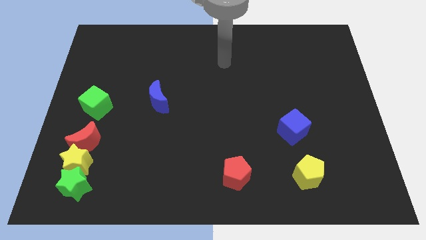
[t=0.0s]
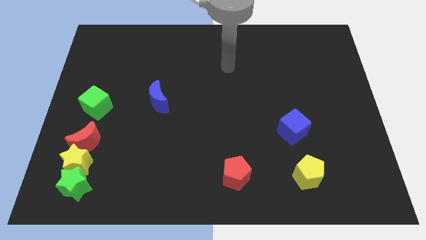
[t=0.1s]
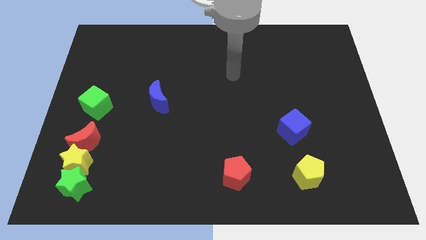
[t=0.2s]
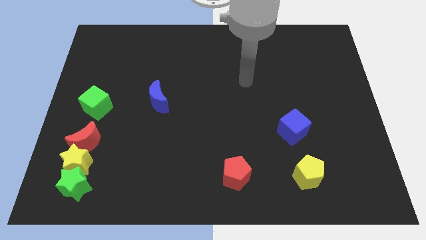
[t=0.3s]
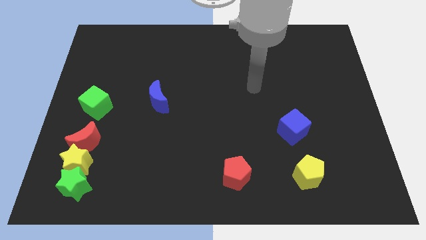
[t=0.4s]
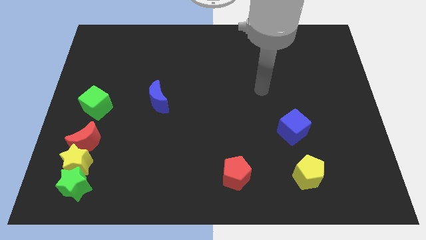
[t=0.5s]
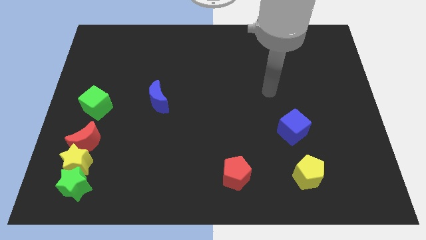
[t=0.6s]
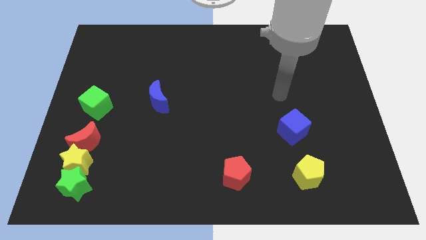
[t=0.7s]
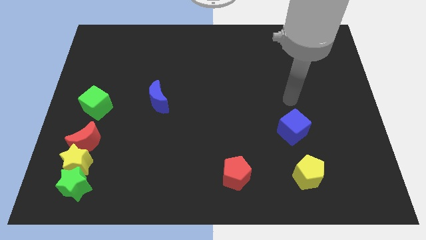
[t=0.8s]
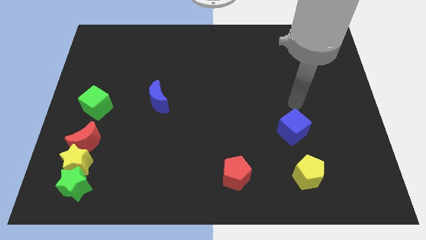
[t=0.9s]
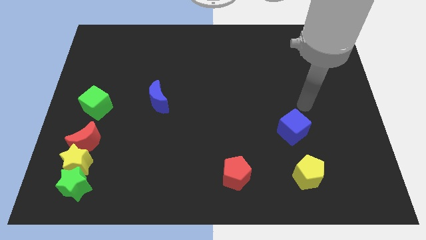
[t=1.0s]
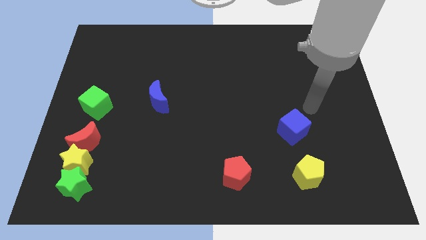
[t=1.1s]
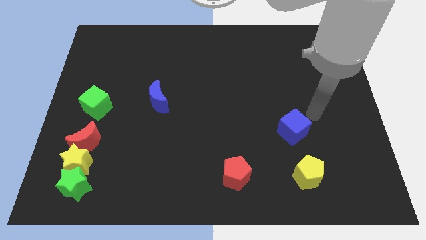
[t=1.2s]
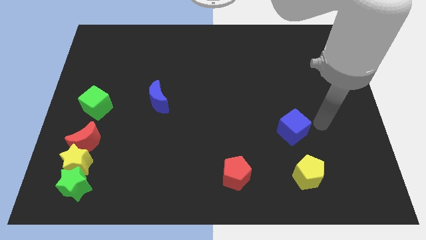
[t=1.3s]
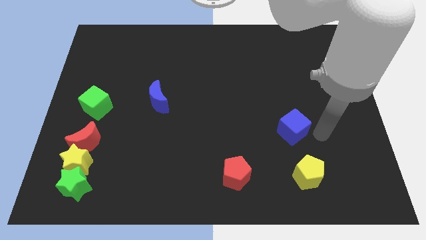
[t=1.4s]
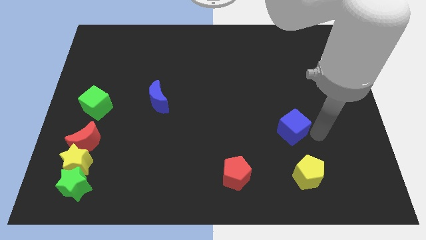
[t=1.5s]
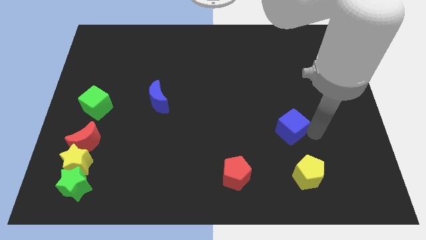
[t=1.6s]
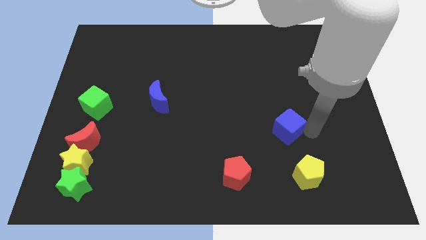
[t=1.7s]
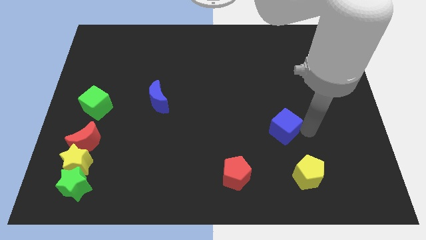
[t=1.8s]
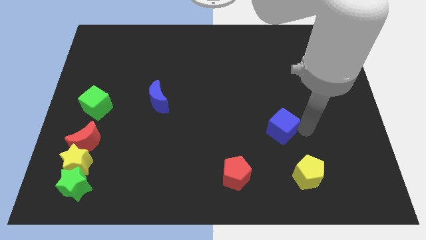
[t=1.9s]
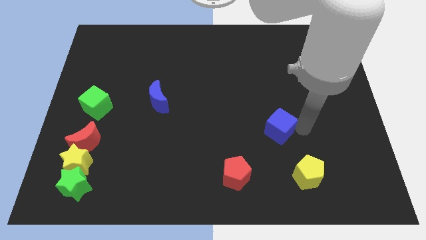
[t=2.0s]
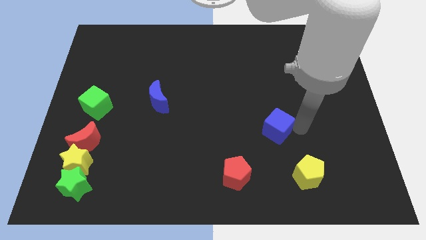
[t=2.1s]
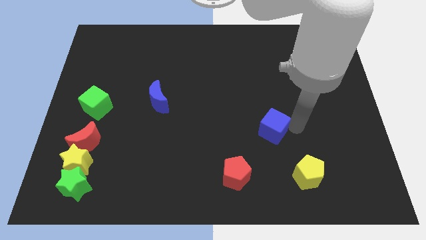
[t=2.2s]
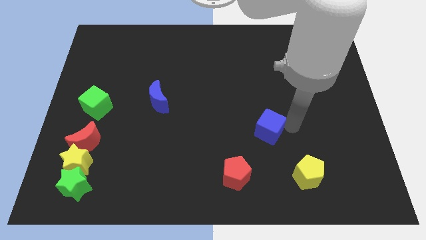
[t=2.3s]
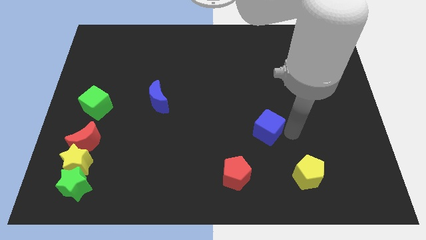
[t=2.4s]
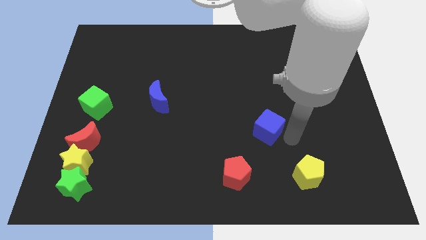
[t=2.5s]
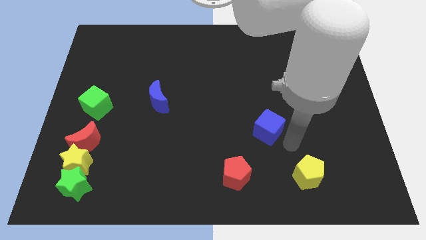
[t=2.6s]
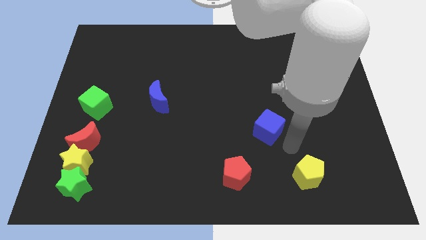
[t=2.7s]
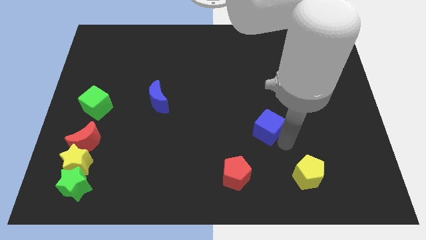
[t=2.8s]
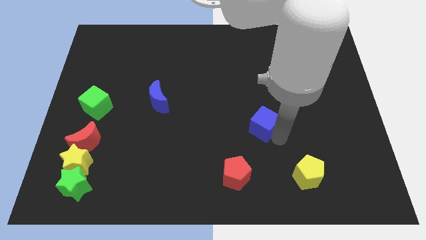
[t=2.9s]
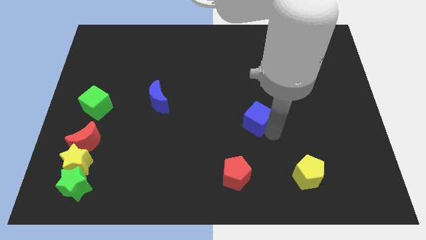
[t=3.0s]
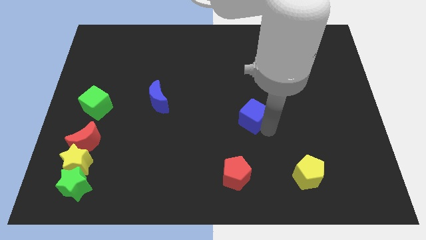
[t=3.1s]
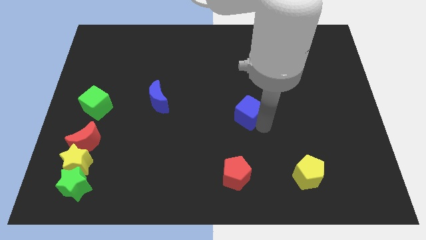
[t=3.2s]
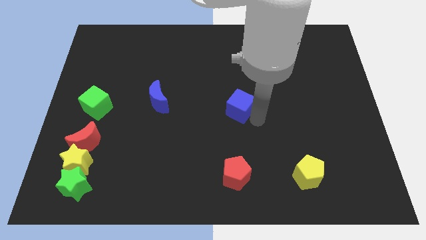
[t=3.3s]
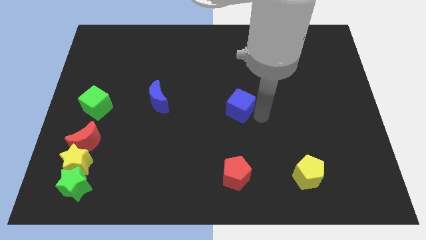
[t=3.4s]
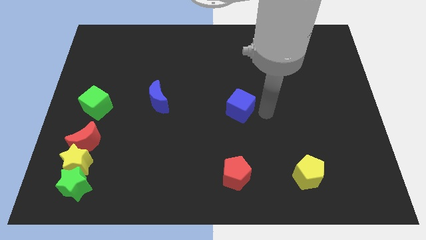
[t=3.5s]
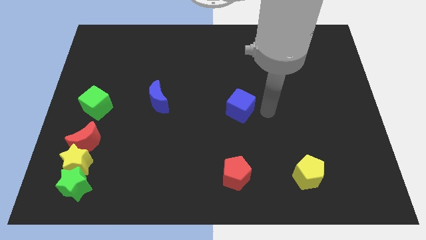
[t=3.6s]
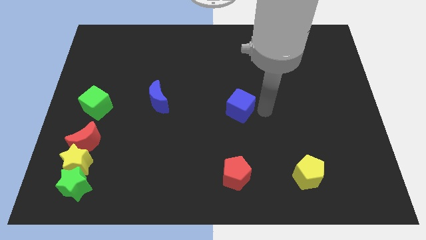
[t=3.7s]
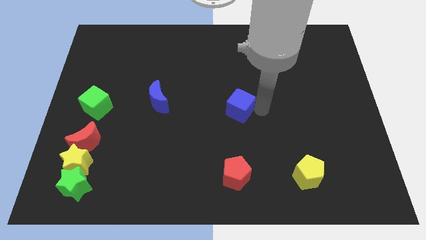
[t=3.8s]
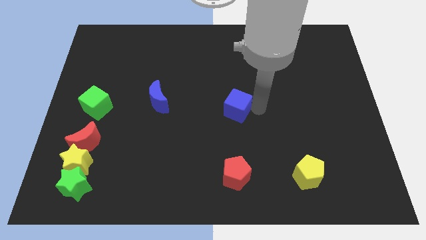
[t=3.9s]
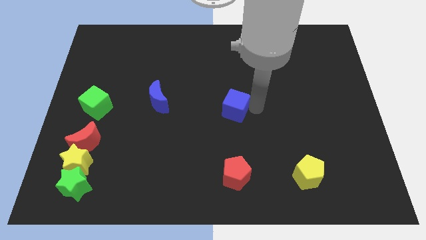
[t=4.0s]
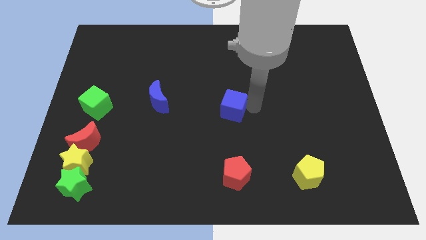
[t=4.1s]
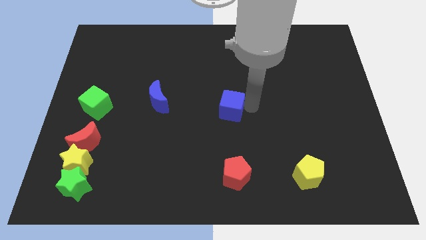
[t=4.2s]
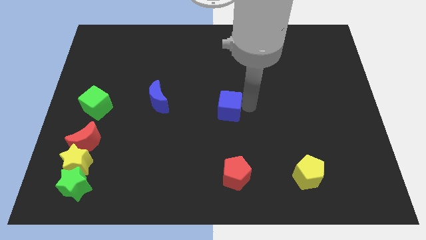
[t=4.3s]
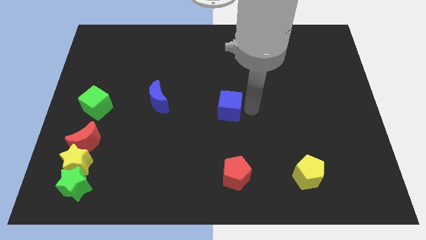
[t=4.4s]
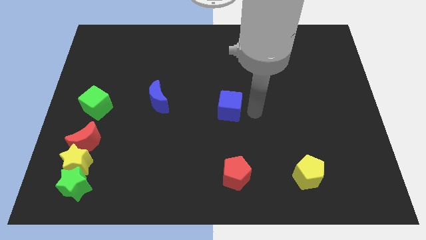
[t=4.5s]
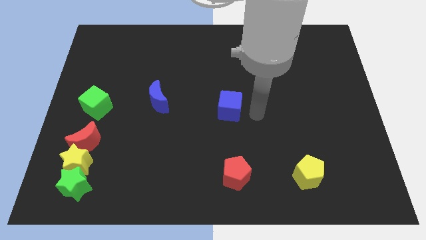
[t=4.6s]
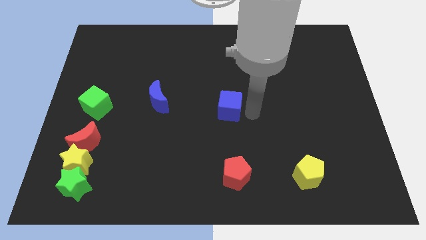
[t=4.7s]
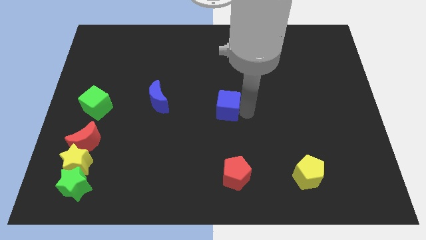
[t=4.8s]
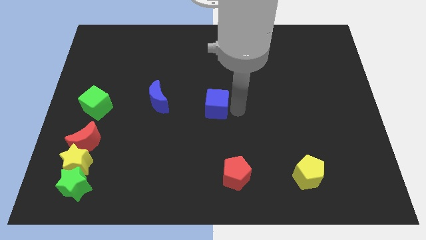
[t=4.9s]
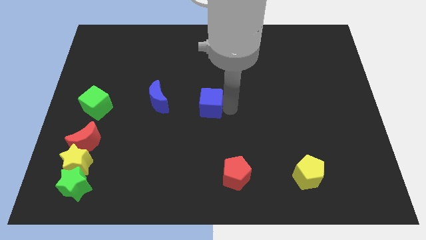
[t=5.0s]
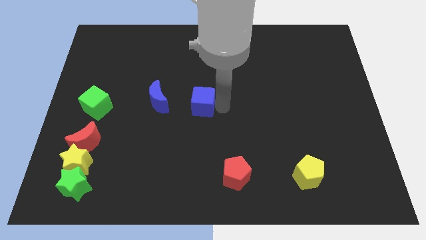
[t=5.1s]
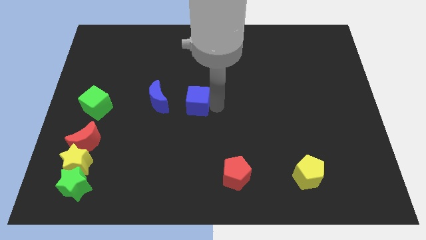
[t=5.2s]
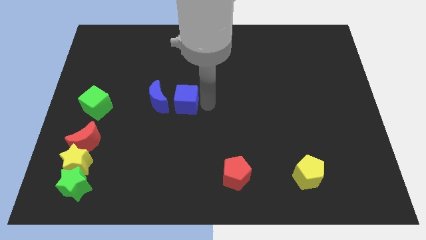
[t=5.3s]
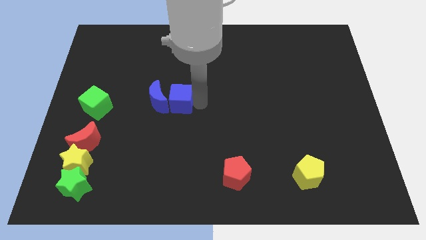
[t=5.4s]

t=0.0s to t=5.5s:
push the blue cube to the blue moon

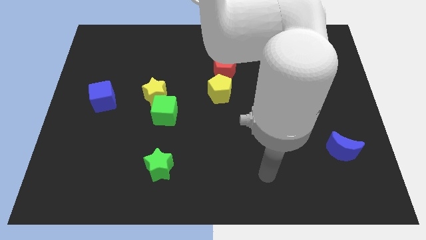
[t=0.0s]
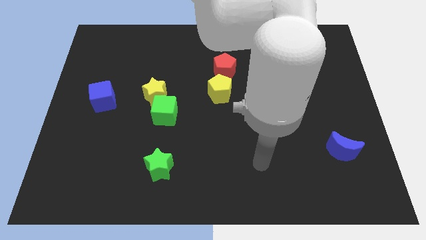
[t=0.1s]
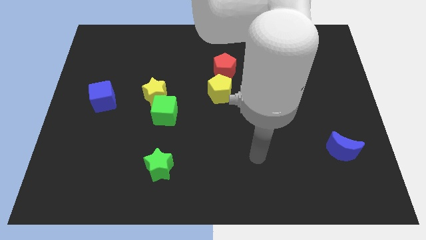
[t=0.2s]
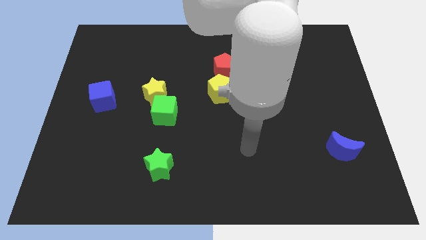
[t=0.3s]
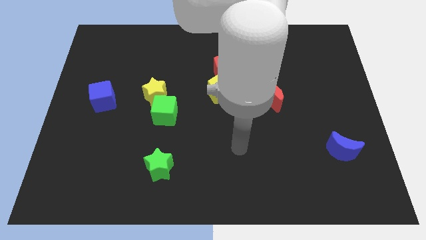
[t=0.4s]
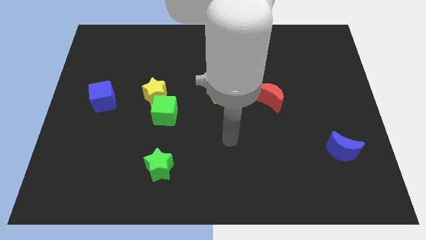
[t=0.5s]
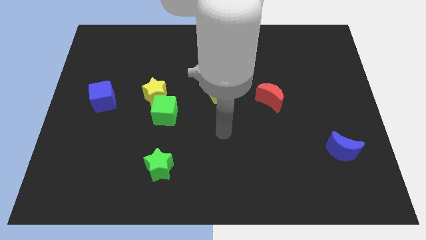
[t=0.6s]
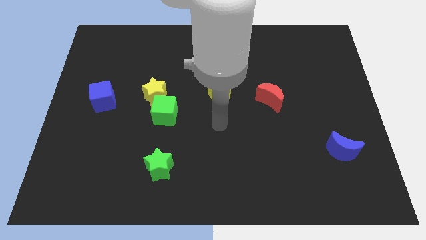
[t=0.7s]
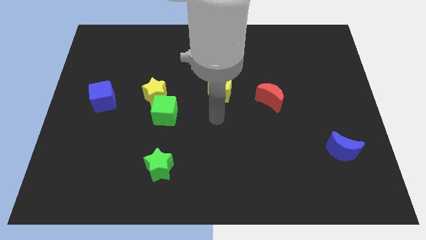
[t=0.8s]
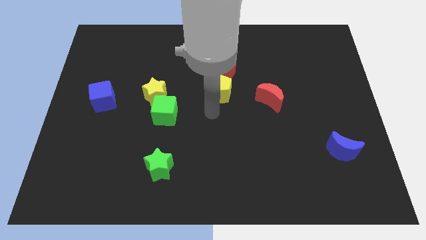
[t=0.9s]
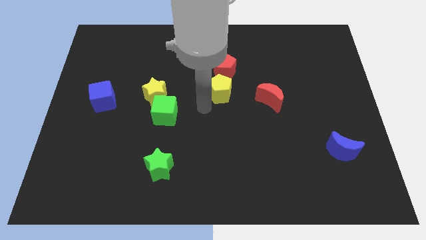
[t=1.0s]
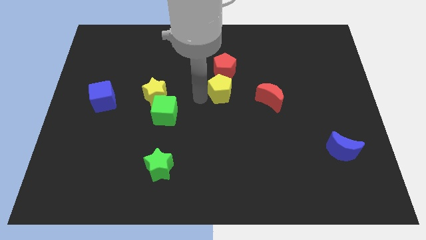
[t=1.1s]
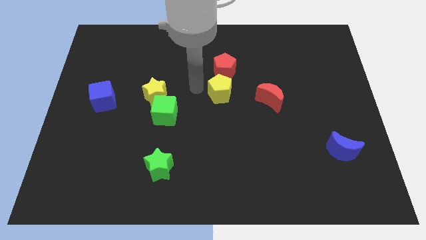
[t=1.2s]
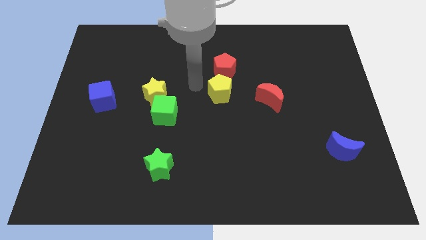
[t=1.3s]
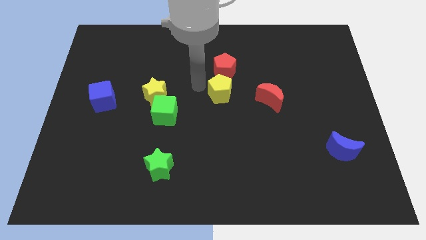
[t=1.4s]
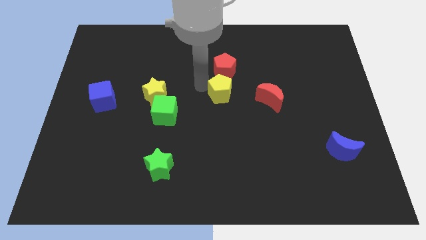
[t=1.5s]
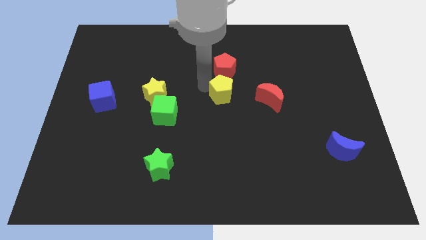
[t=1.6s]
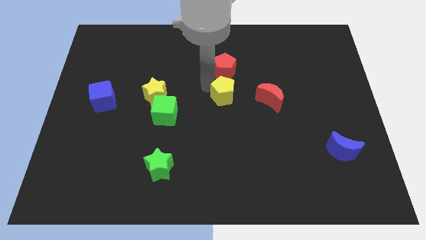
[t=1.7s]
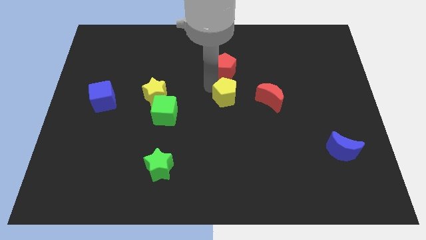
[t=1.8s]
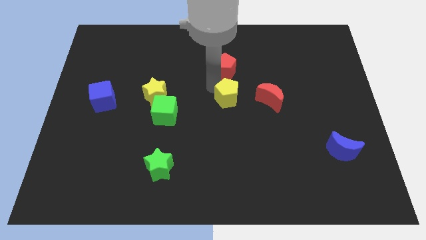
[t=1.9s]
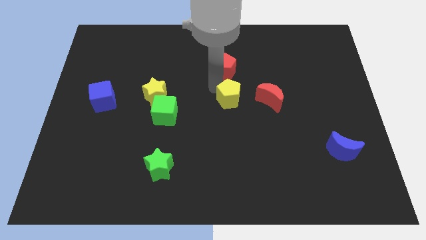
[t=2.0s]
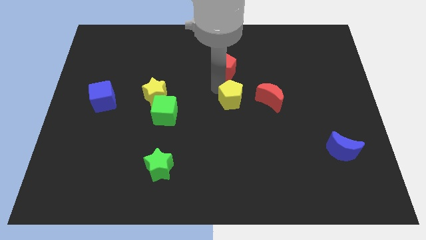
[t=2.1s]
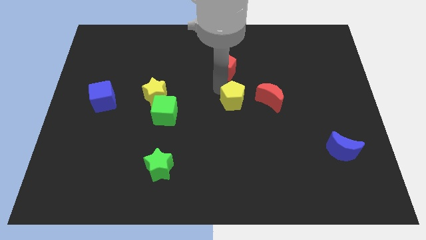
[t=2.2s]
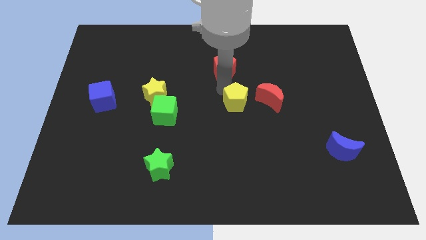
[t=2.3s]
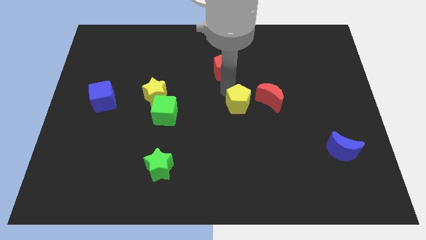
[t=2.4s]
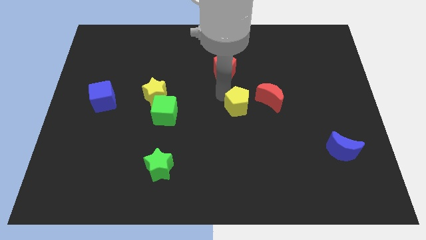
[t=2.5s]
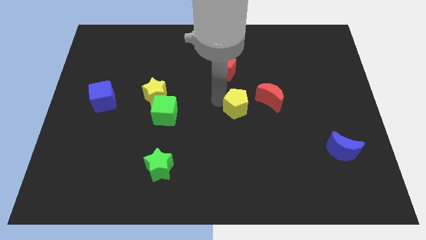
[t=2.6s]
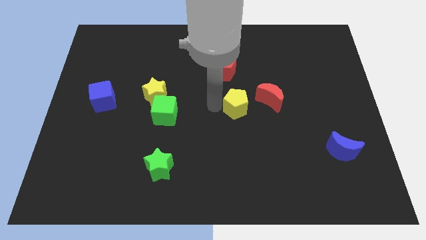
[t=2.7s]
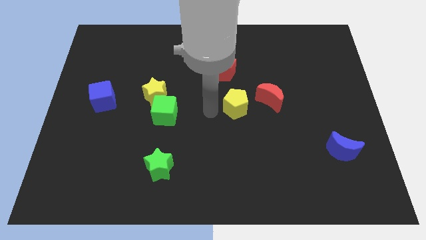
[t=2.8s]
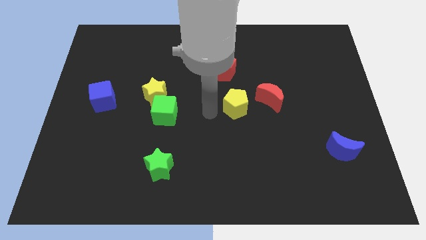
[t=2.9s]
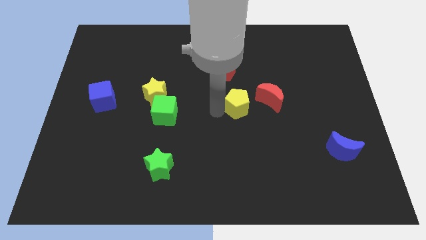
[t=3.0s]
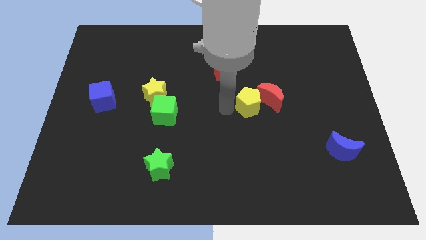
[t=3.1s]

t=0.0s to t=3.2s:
slide the yellow pentagon towards the red moon
